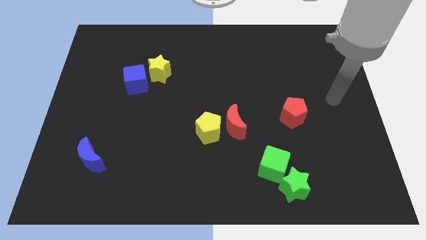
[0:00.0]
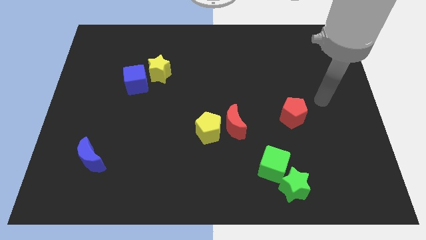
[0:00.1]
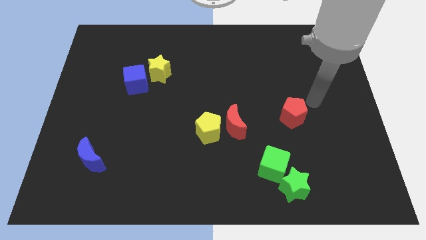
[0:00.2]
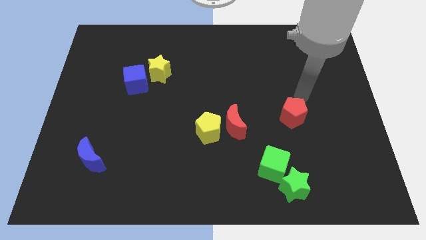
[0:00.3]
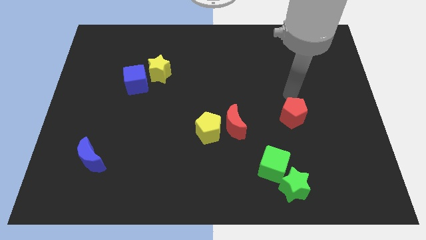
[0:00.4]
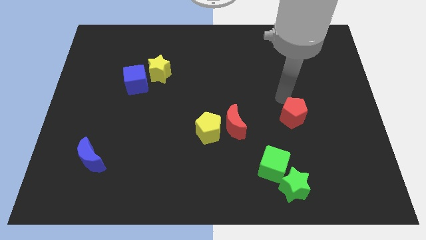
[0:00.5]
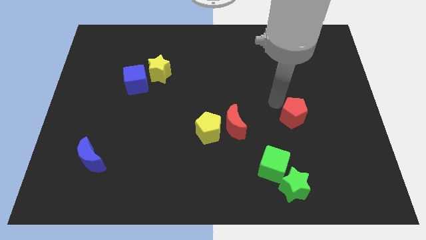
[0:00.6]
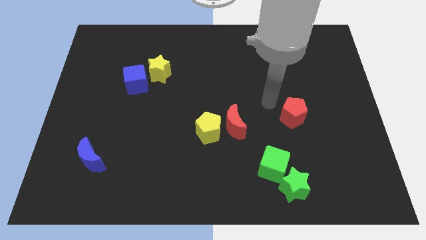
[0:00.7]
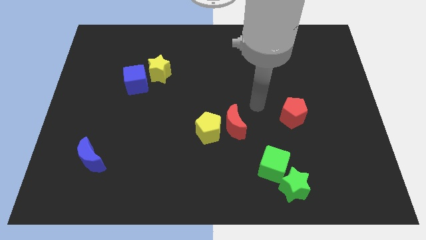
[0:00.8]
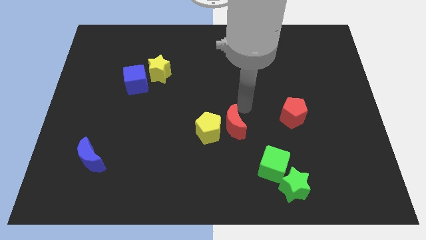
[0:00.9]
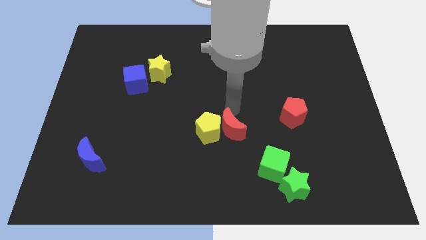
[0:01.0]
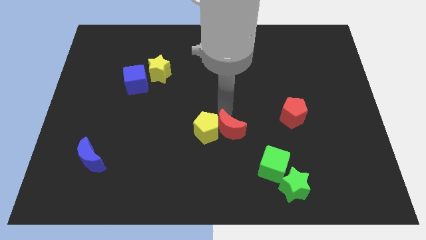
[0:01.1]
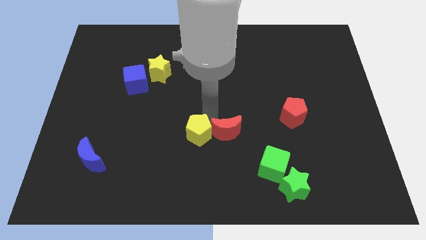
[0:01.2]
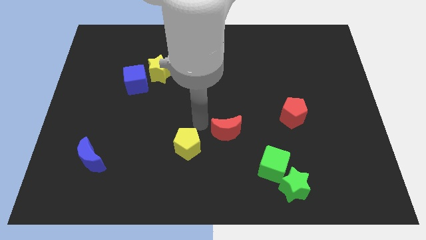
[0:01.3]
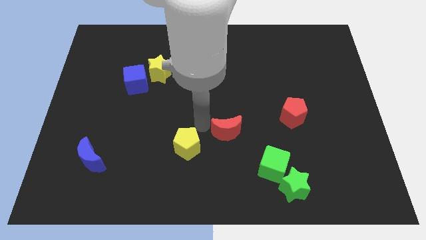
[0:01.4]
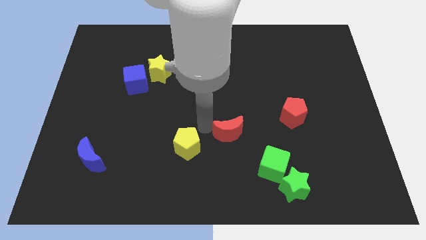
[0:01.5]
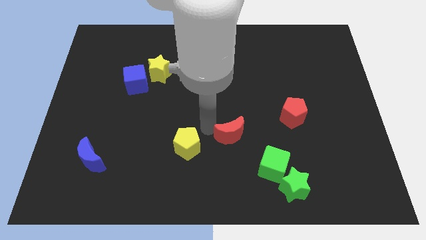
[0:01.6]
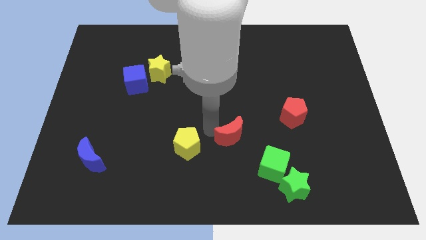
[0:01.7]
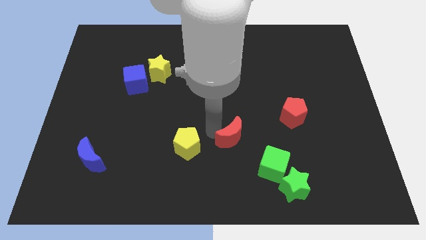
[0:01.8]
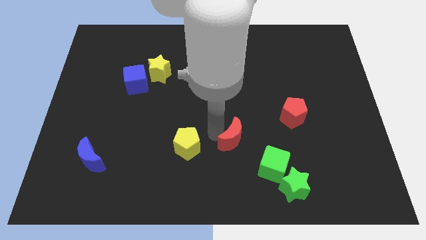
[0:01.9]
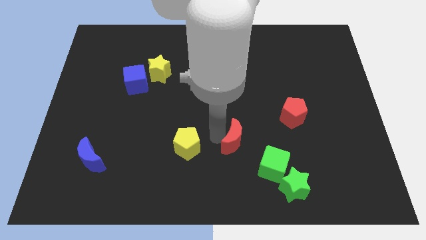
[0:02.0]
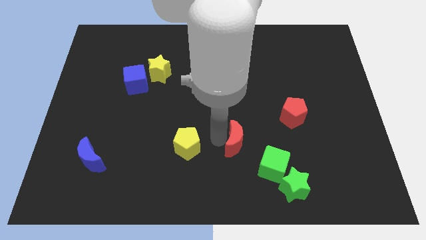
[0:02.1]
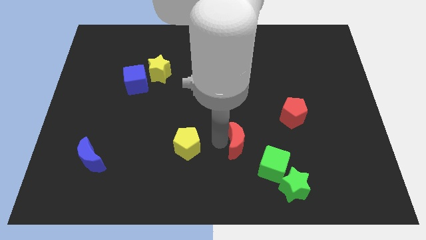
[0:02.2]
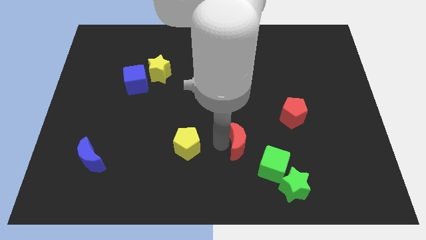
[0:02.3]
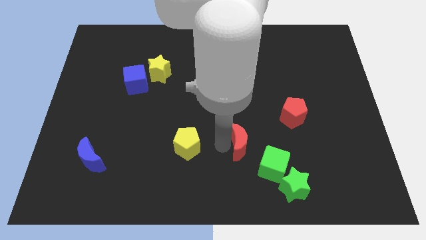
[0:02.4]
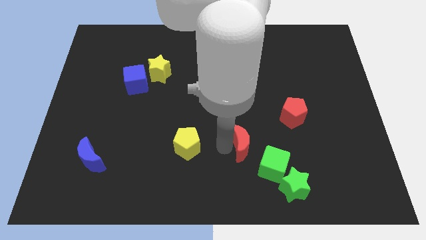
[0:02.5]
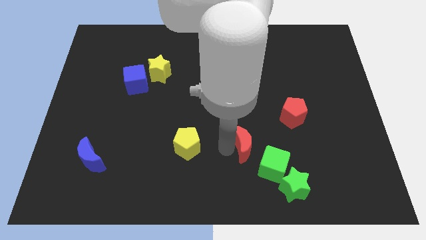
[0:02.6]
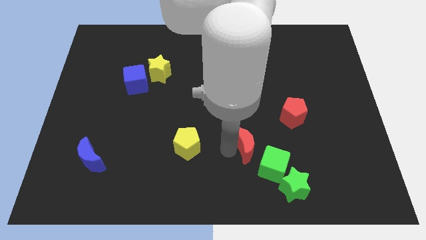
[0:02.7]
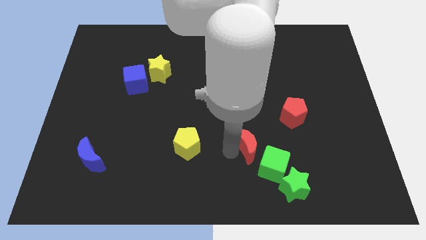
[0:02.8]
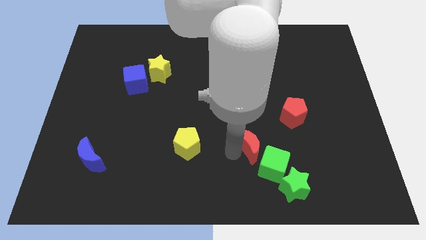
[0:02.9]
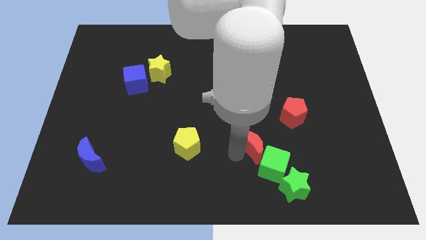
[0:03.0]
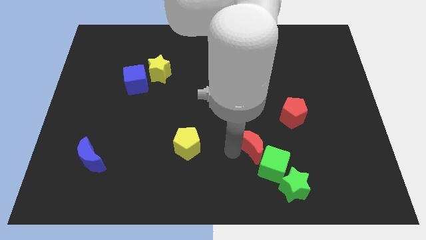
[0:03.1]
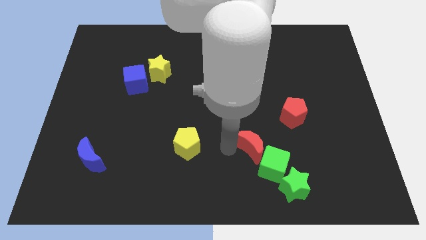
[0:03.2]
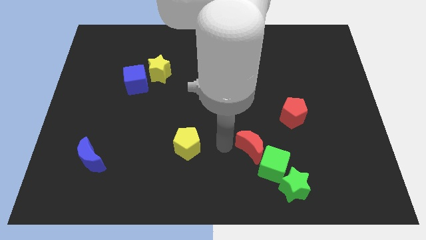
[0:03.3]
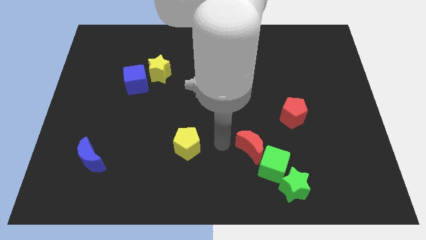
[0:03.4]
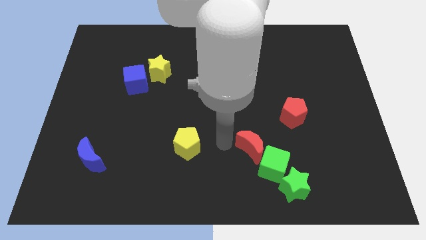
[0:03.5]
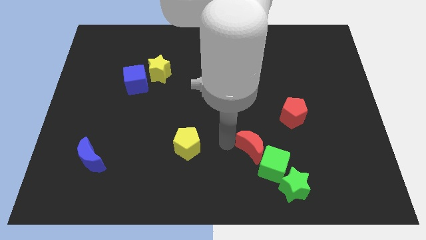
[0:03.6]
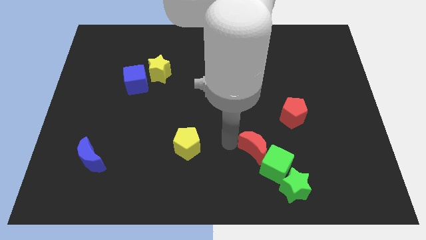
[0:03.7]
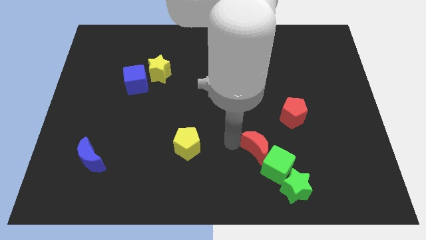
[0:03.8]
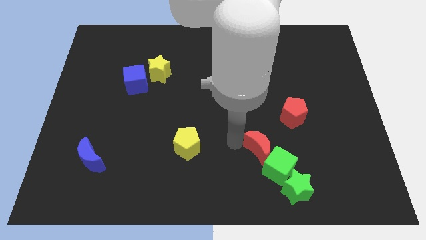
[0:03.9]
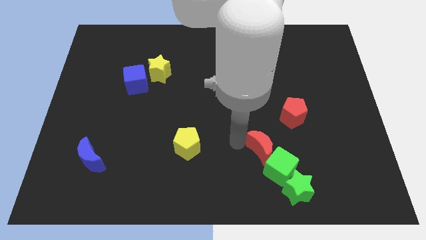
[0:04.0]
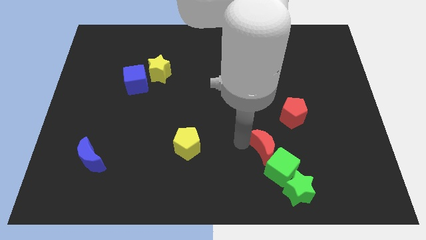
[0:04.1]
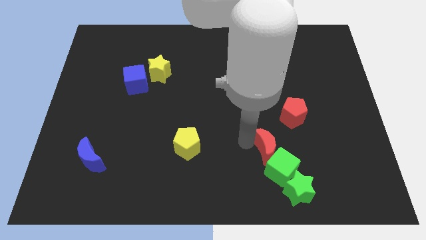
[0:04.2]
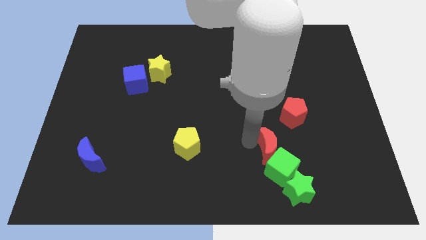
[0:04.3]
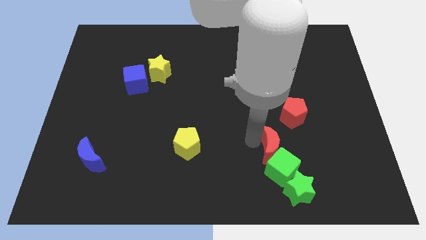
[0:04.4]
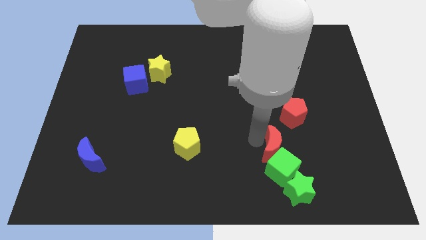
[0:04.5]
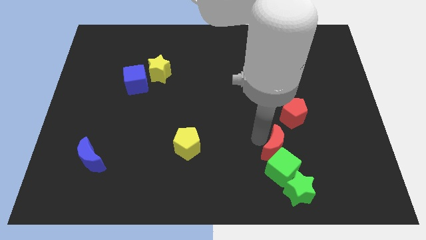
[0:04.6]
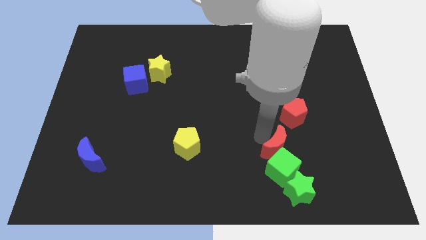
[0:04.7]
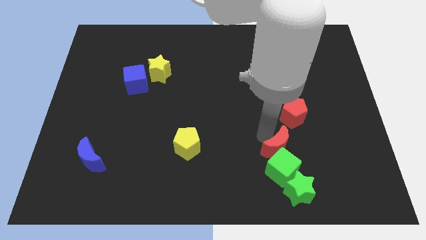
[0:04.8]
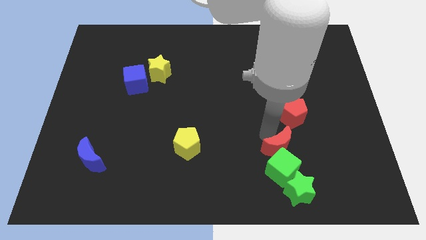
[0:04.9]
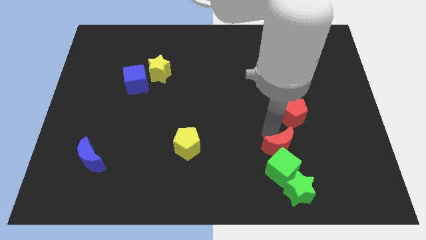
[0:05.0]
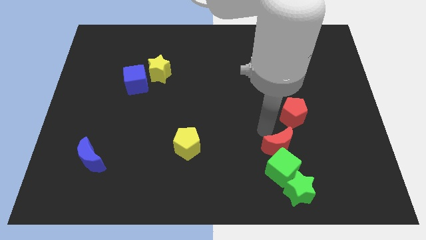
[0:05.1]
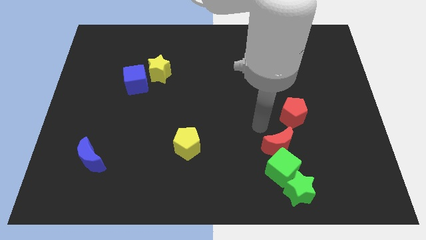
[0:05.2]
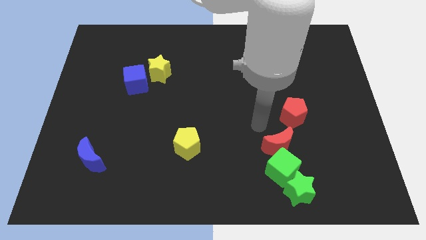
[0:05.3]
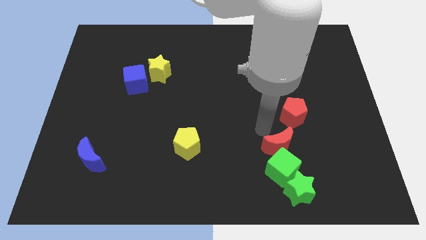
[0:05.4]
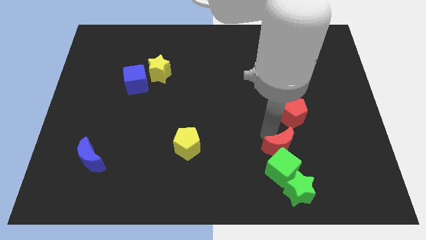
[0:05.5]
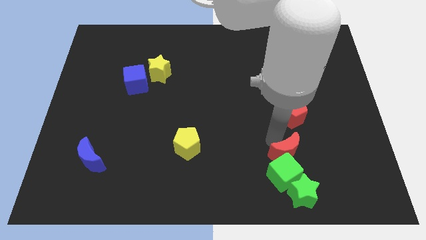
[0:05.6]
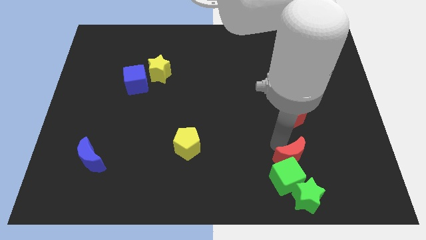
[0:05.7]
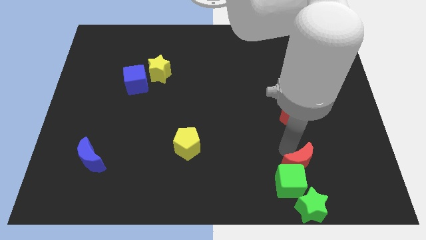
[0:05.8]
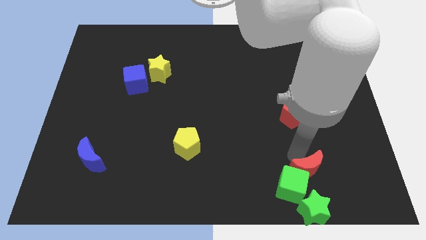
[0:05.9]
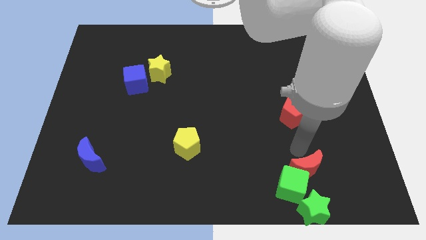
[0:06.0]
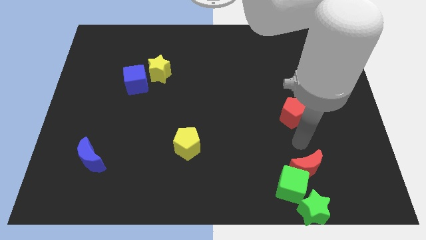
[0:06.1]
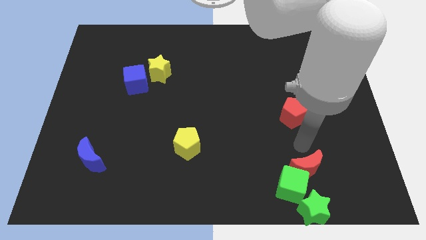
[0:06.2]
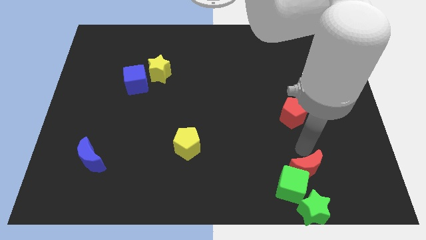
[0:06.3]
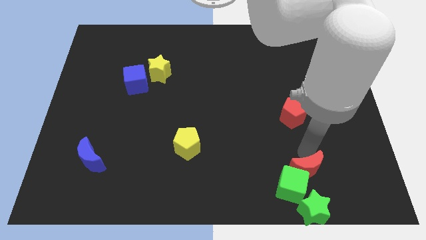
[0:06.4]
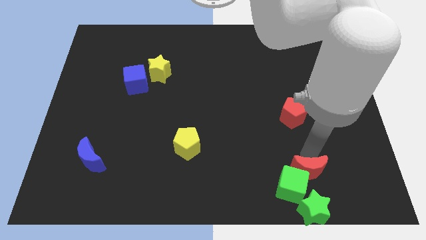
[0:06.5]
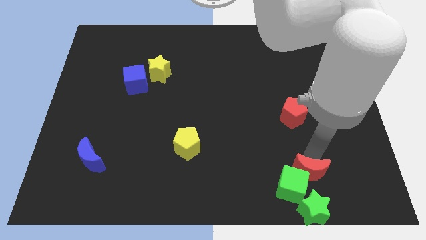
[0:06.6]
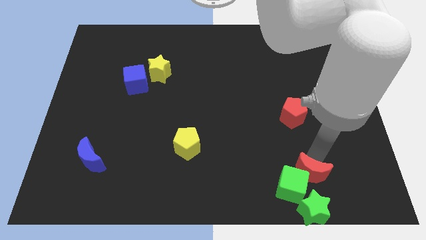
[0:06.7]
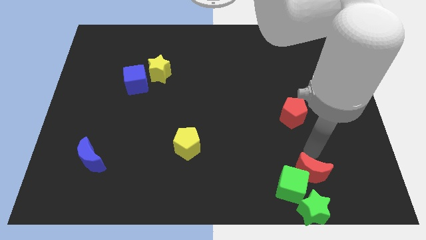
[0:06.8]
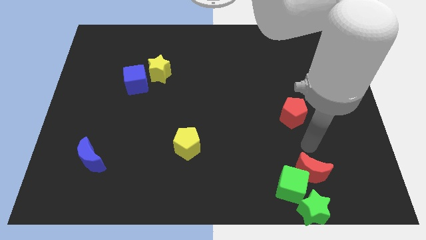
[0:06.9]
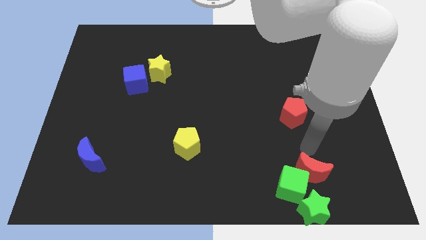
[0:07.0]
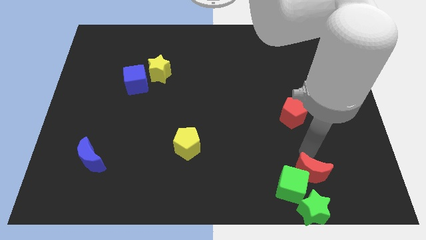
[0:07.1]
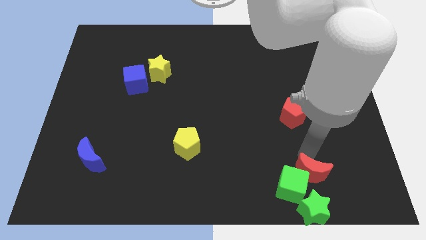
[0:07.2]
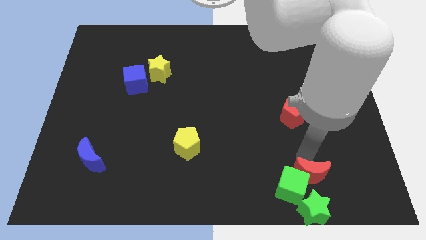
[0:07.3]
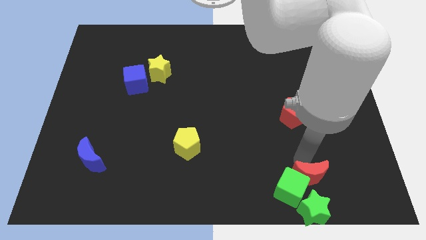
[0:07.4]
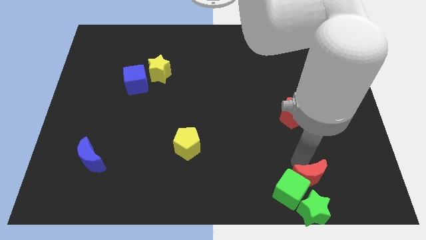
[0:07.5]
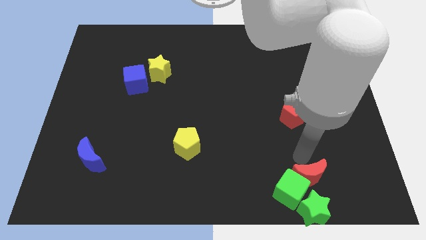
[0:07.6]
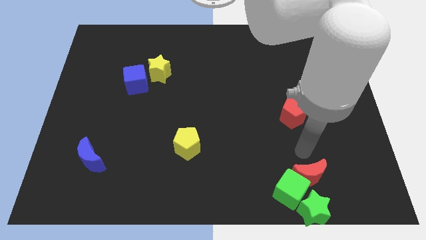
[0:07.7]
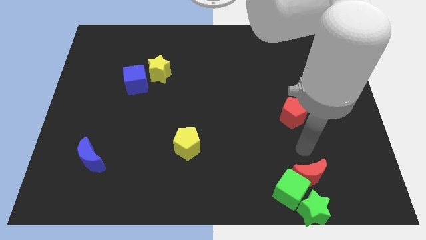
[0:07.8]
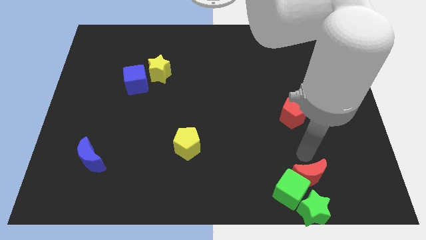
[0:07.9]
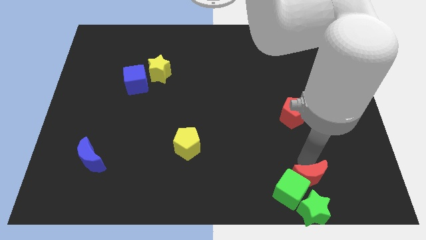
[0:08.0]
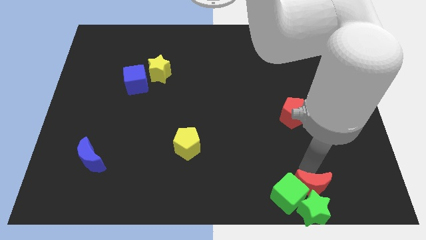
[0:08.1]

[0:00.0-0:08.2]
put the red moon towards the green star
